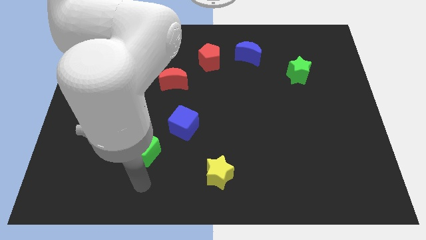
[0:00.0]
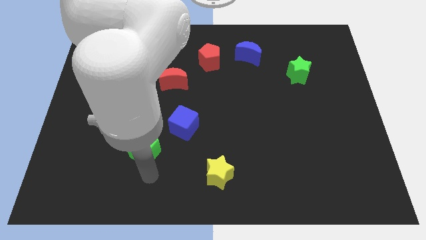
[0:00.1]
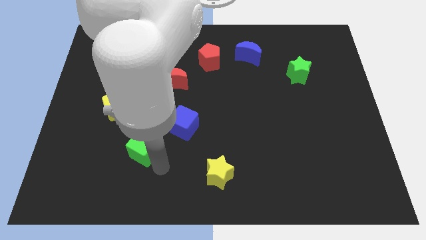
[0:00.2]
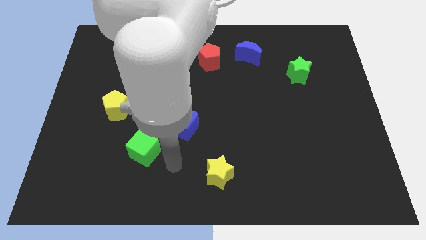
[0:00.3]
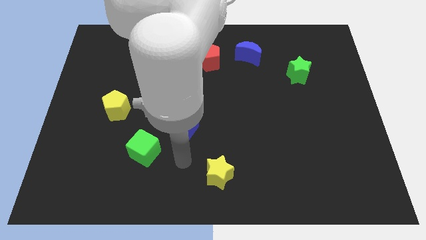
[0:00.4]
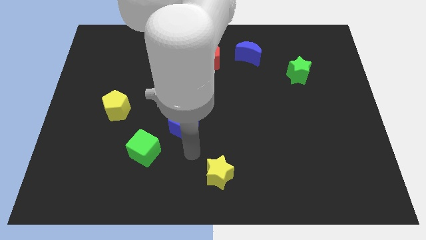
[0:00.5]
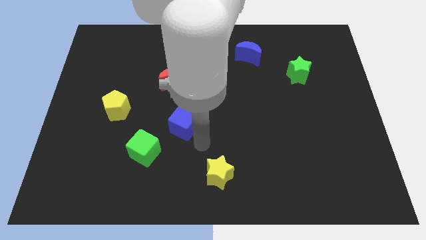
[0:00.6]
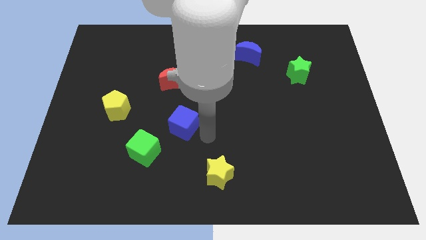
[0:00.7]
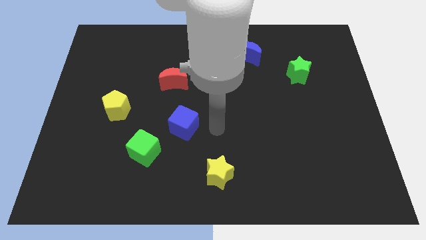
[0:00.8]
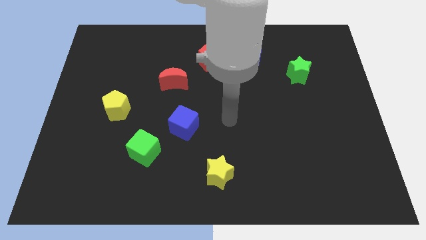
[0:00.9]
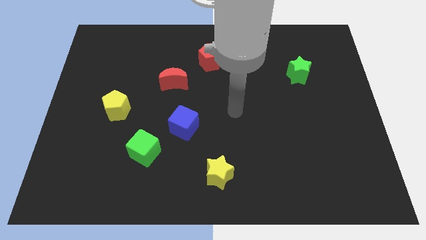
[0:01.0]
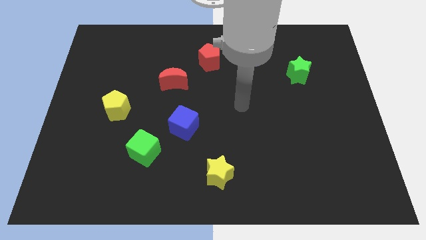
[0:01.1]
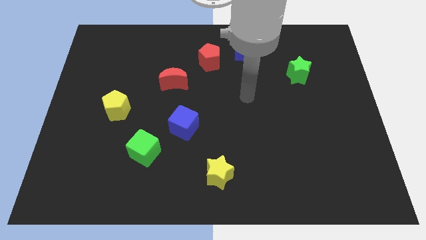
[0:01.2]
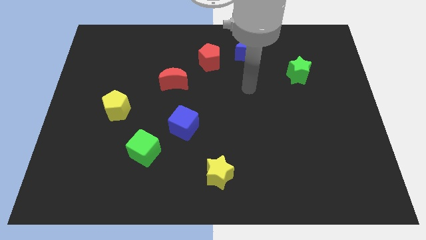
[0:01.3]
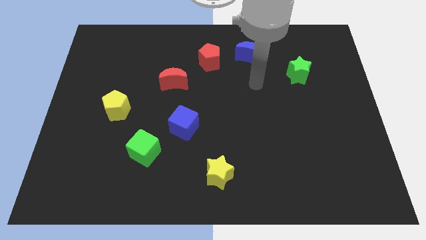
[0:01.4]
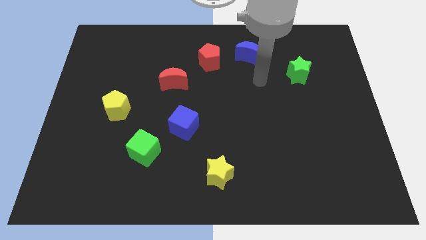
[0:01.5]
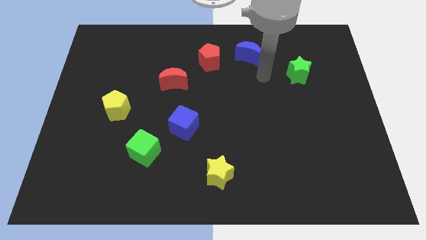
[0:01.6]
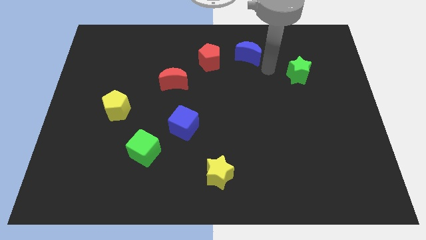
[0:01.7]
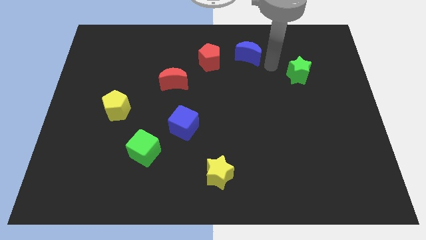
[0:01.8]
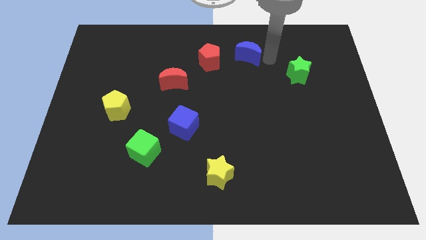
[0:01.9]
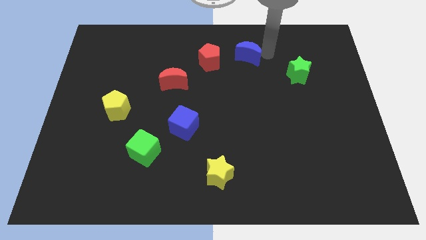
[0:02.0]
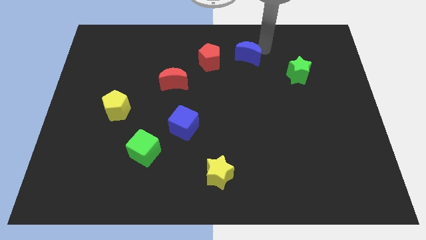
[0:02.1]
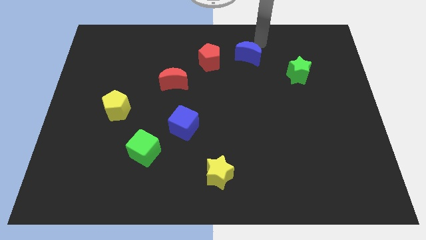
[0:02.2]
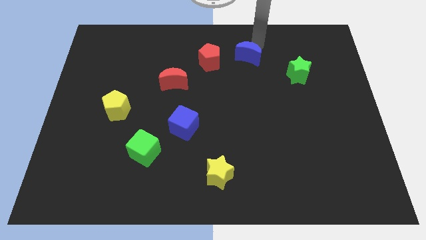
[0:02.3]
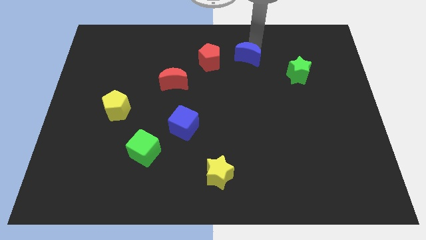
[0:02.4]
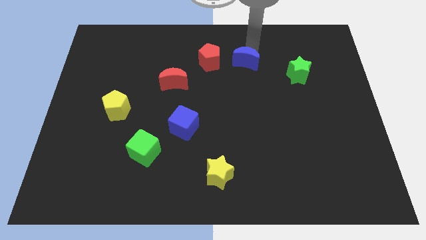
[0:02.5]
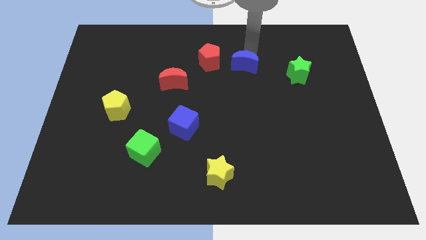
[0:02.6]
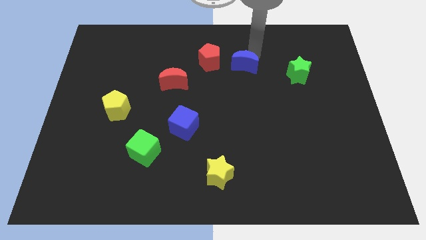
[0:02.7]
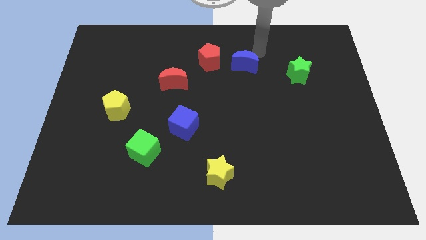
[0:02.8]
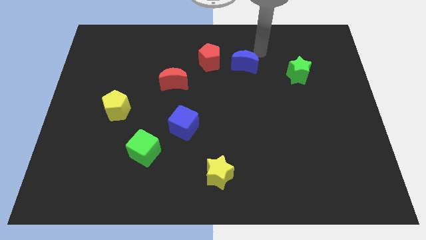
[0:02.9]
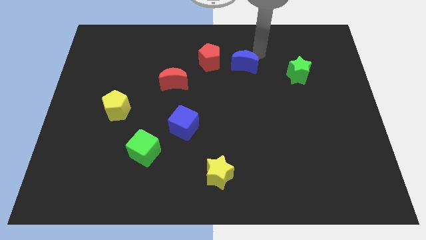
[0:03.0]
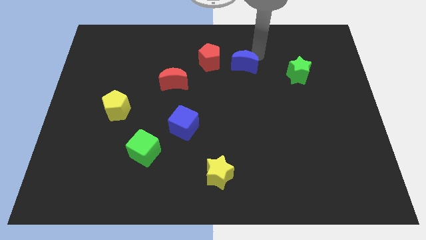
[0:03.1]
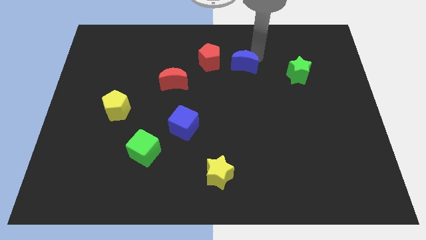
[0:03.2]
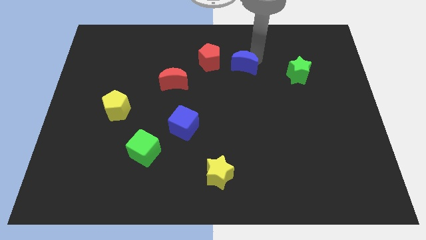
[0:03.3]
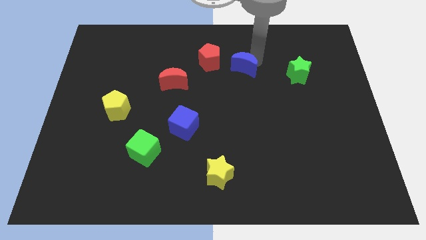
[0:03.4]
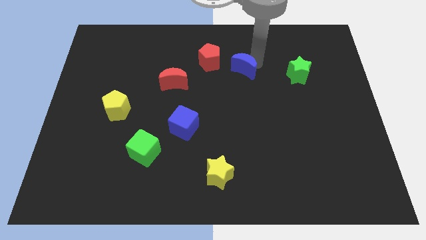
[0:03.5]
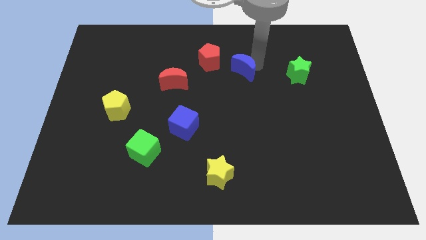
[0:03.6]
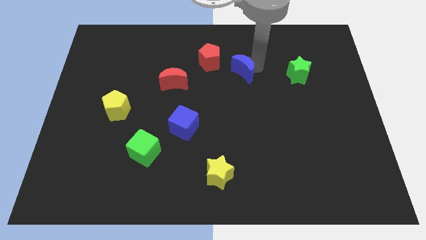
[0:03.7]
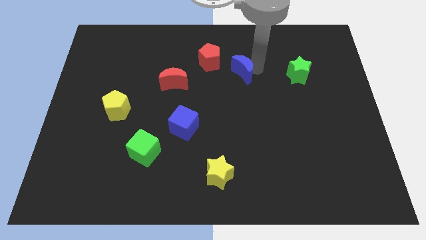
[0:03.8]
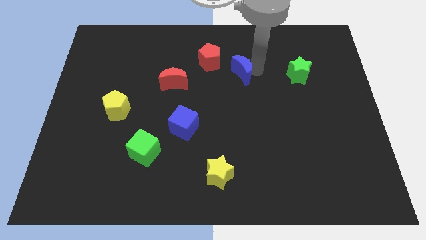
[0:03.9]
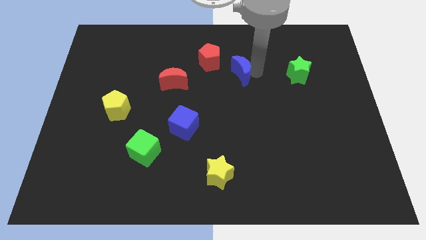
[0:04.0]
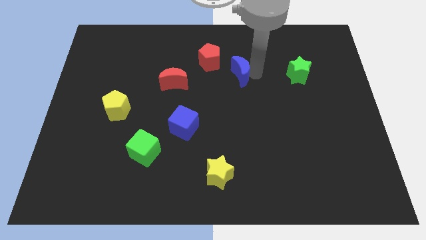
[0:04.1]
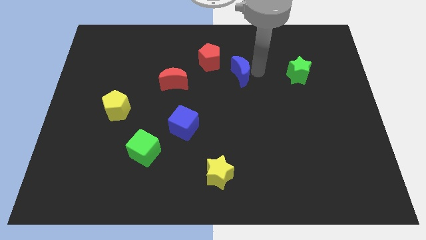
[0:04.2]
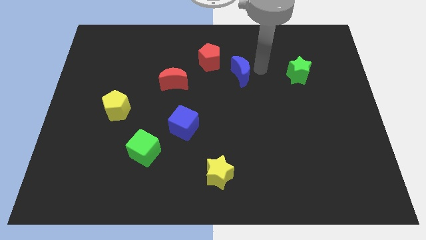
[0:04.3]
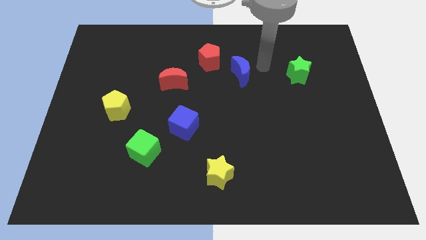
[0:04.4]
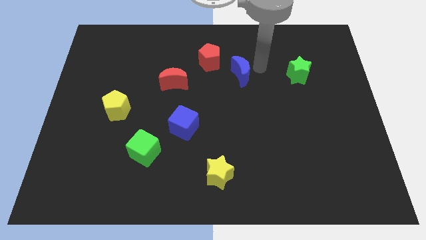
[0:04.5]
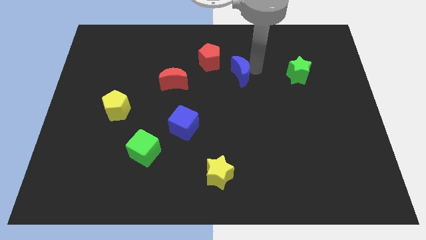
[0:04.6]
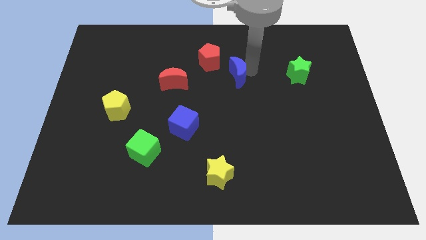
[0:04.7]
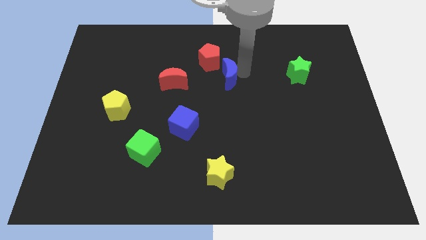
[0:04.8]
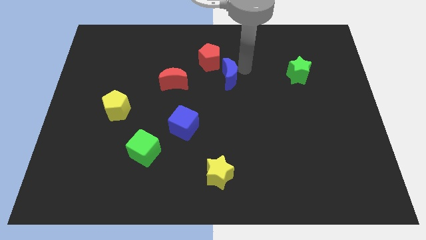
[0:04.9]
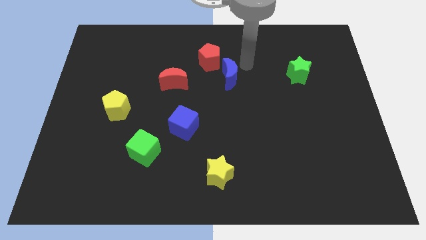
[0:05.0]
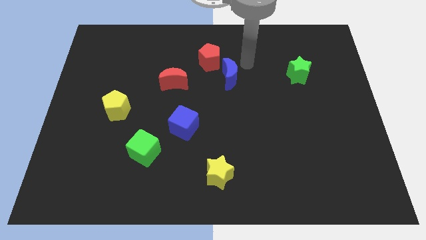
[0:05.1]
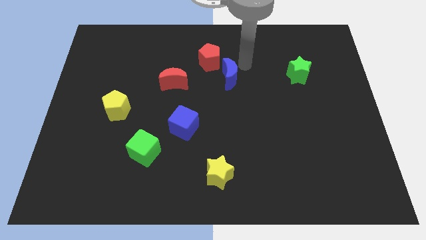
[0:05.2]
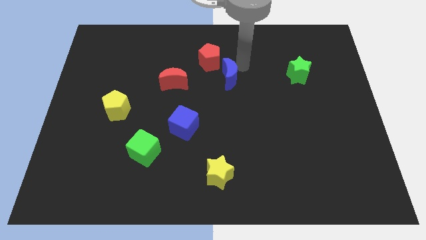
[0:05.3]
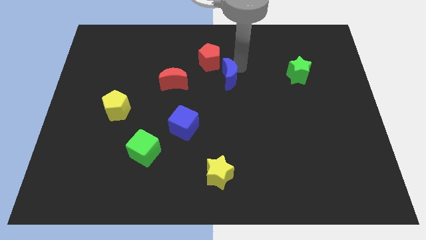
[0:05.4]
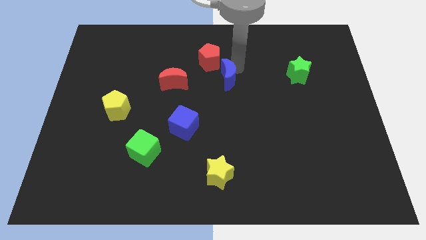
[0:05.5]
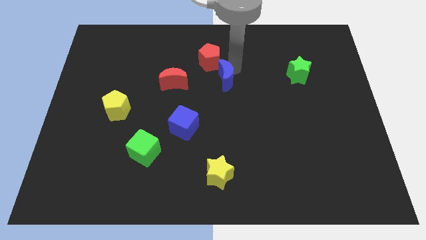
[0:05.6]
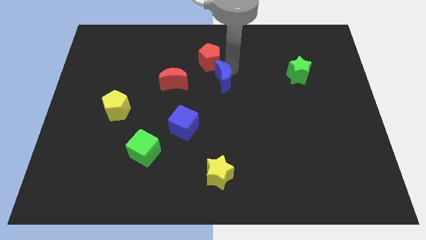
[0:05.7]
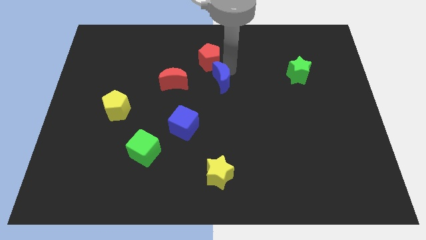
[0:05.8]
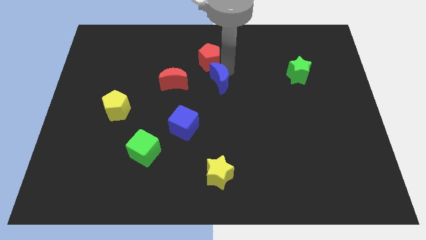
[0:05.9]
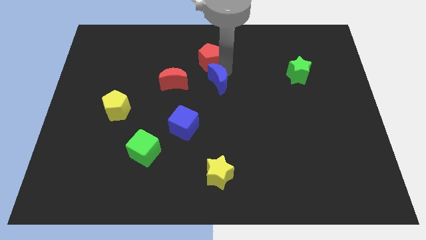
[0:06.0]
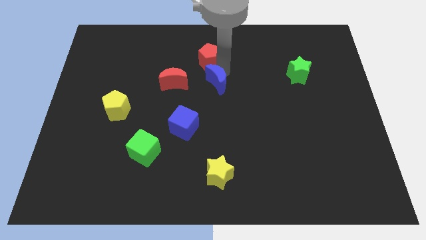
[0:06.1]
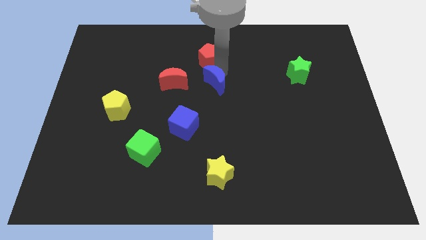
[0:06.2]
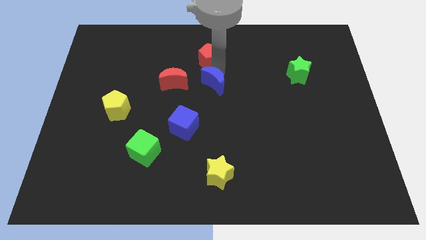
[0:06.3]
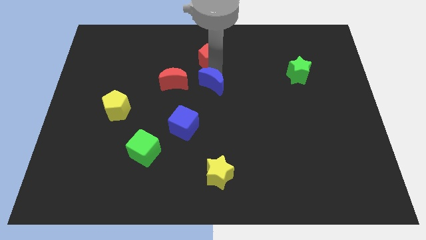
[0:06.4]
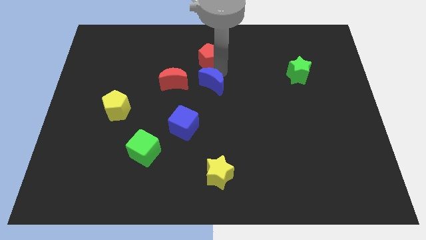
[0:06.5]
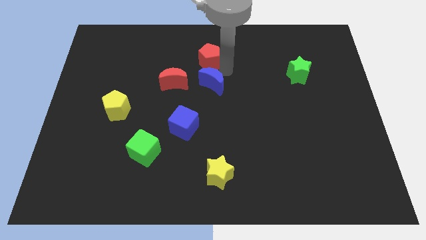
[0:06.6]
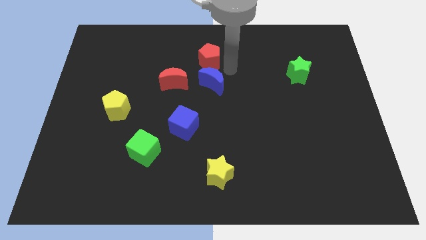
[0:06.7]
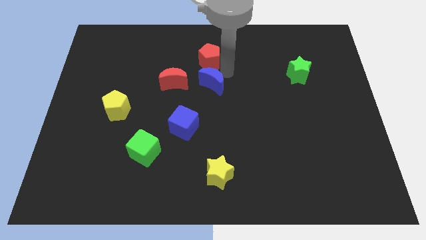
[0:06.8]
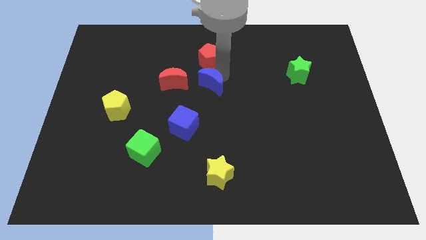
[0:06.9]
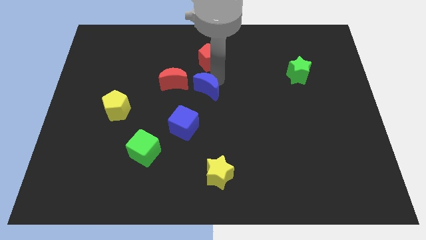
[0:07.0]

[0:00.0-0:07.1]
put the blue moon diagonally down and to the right of the red moon
